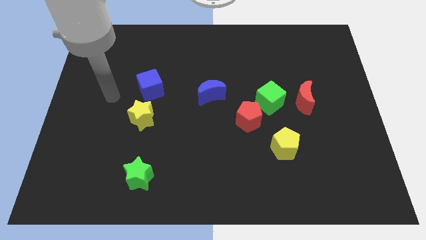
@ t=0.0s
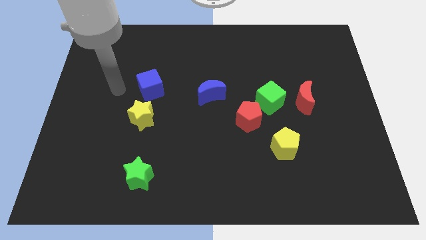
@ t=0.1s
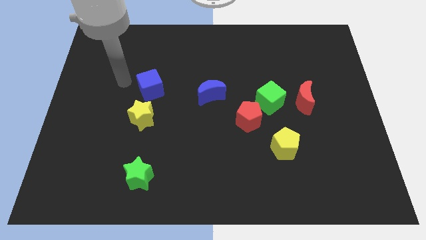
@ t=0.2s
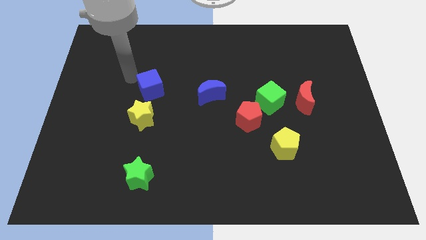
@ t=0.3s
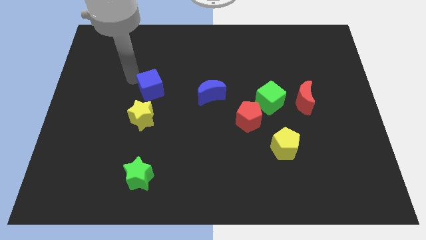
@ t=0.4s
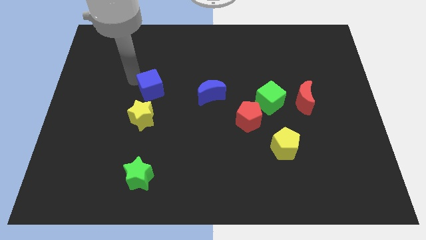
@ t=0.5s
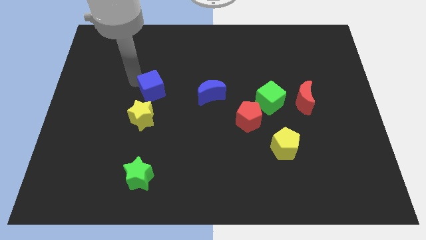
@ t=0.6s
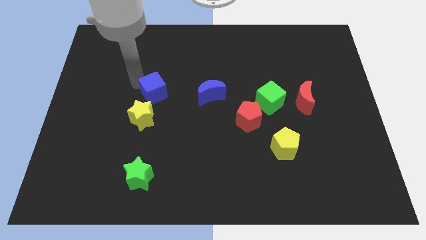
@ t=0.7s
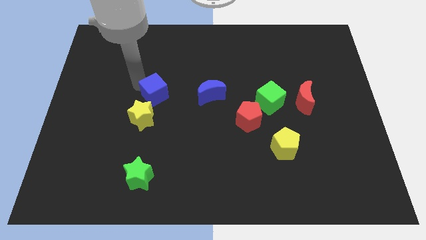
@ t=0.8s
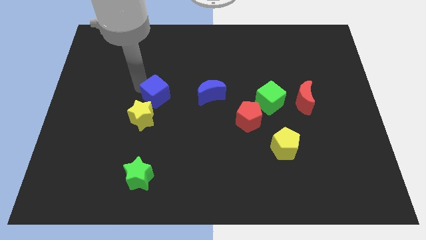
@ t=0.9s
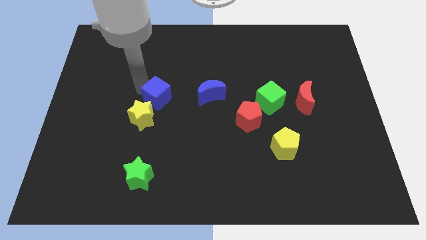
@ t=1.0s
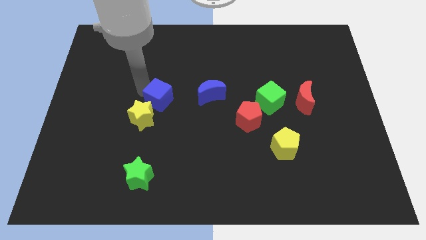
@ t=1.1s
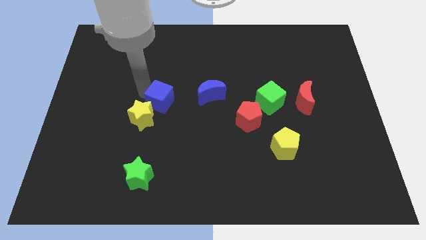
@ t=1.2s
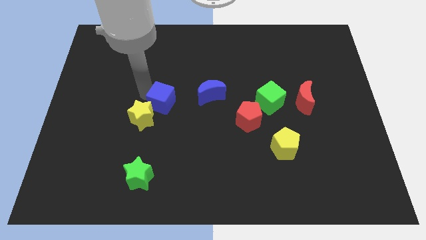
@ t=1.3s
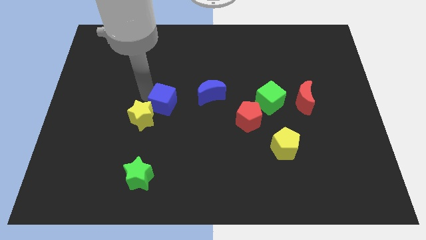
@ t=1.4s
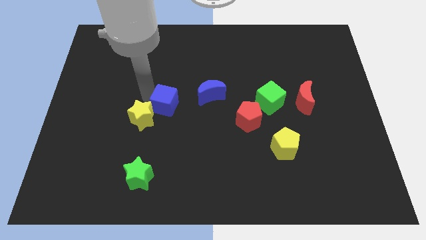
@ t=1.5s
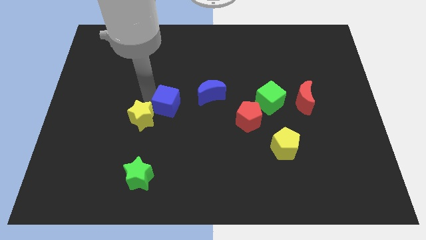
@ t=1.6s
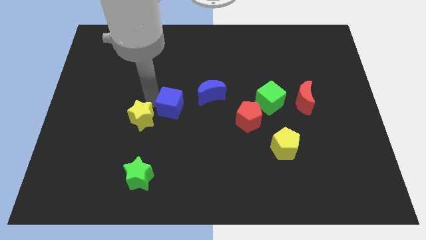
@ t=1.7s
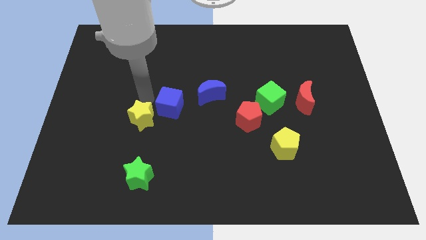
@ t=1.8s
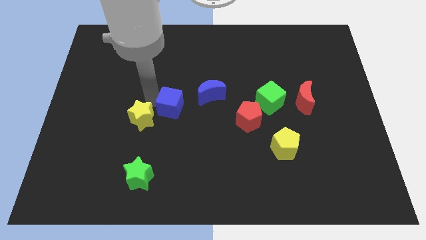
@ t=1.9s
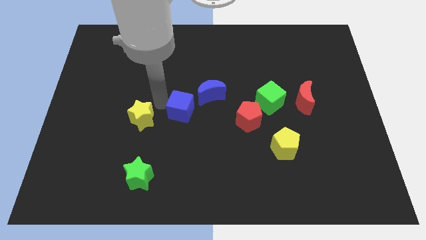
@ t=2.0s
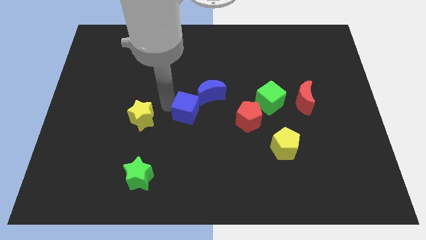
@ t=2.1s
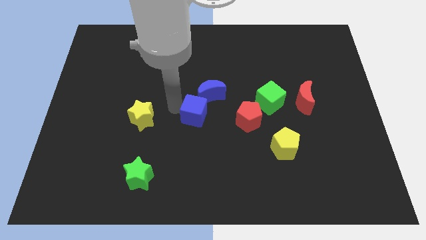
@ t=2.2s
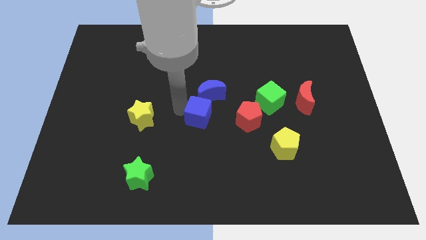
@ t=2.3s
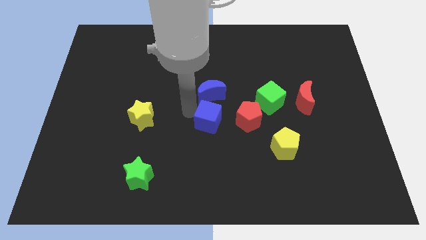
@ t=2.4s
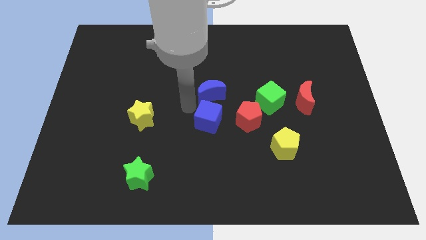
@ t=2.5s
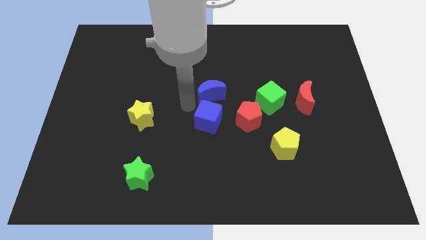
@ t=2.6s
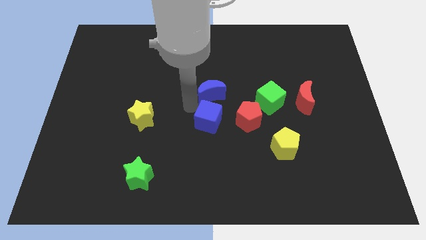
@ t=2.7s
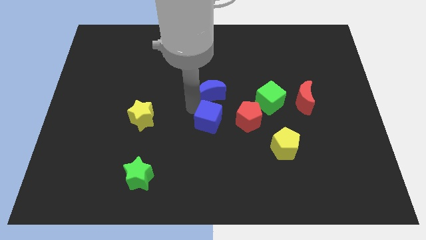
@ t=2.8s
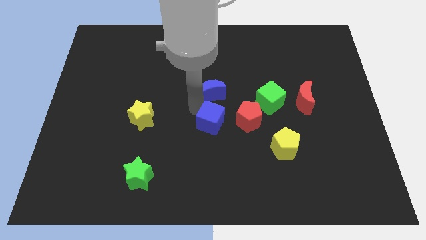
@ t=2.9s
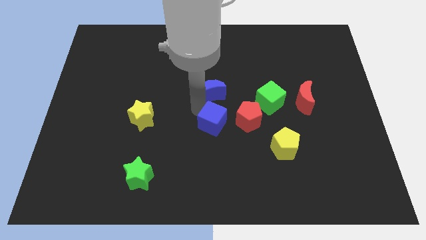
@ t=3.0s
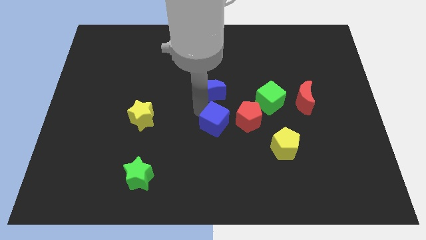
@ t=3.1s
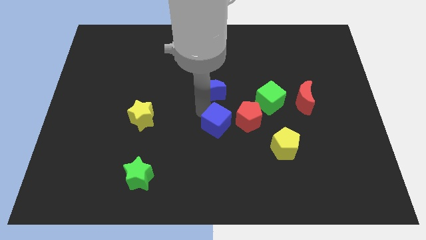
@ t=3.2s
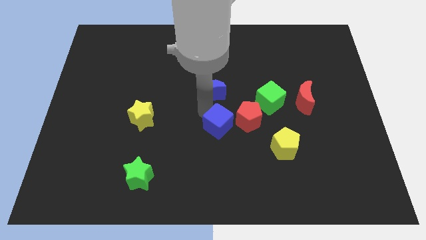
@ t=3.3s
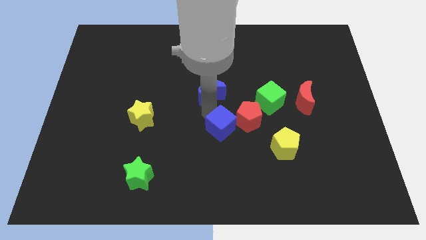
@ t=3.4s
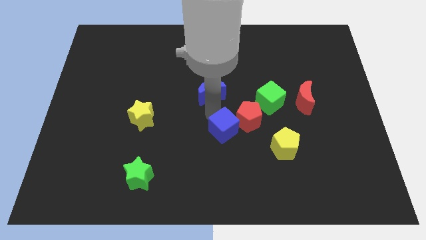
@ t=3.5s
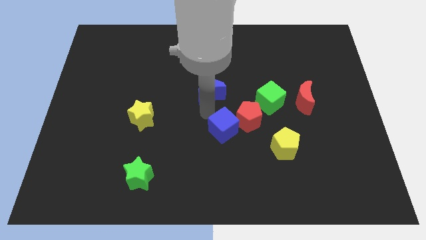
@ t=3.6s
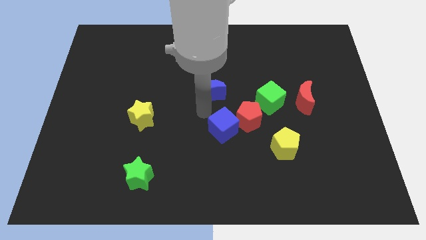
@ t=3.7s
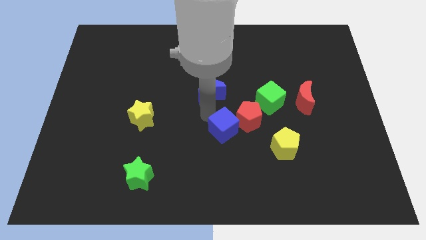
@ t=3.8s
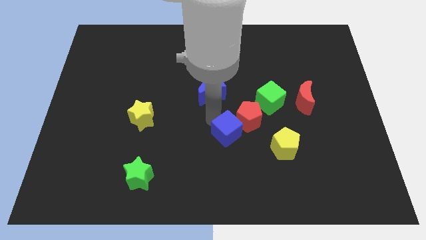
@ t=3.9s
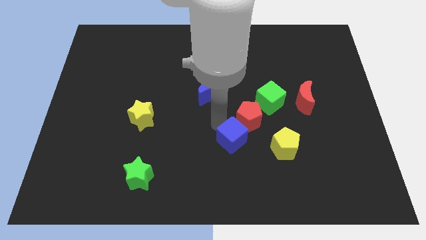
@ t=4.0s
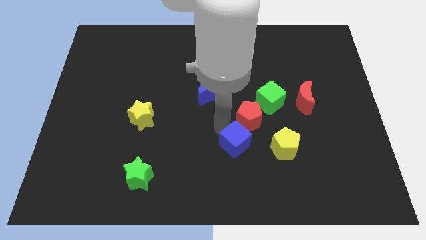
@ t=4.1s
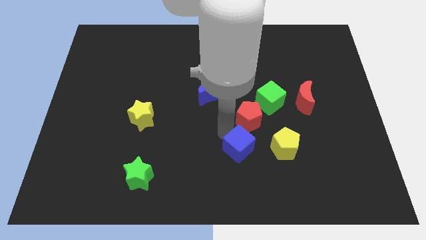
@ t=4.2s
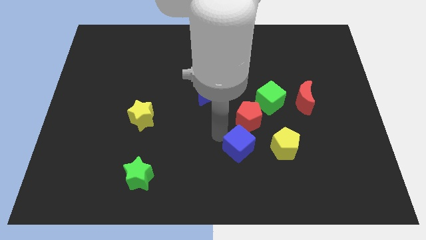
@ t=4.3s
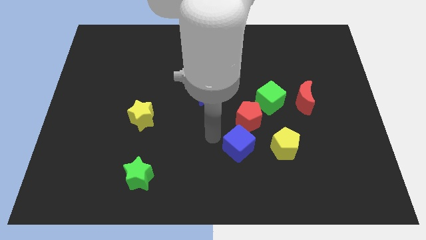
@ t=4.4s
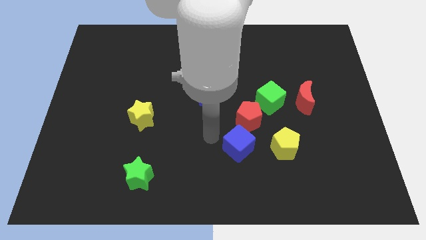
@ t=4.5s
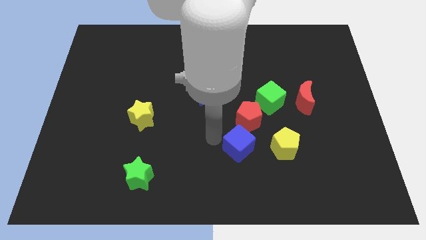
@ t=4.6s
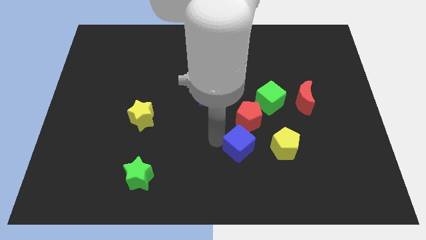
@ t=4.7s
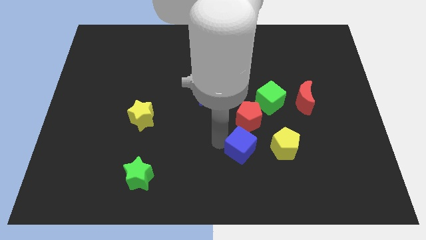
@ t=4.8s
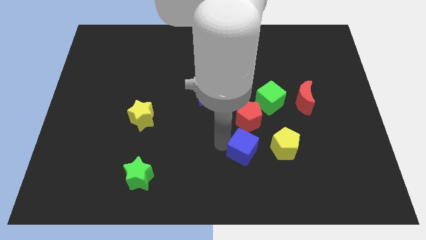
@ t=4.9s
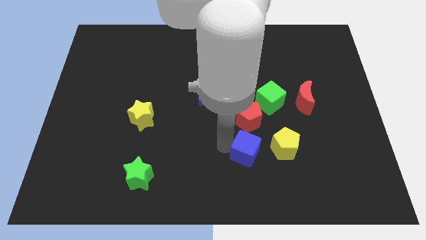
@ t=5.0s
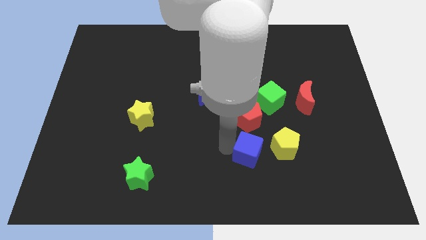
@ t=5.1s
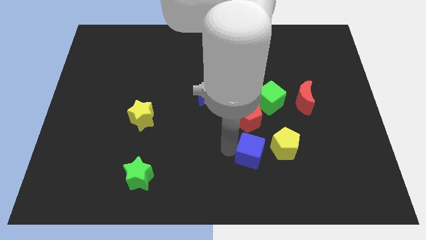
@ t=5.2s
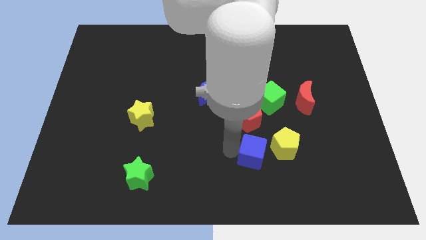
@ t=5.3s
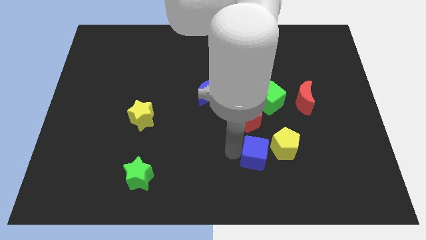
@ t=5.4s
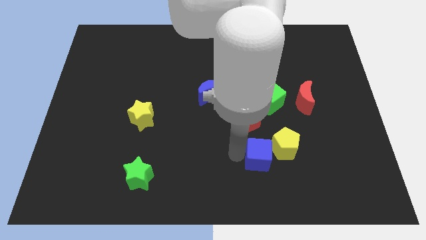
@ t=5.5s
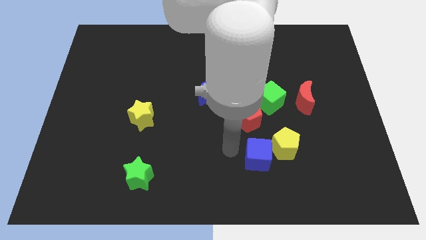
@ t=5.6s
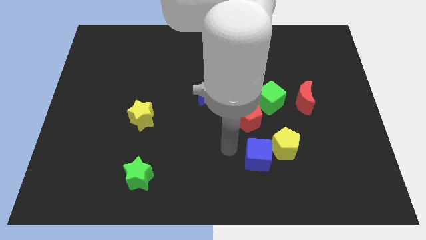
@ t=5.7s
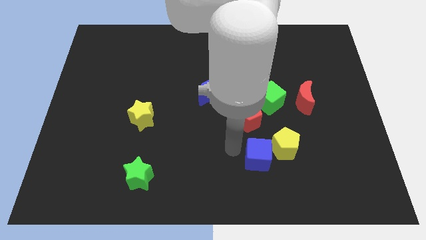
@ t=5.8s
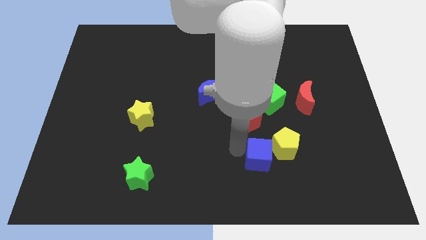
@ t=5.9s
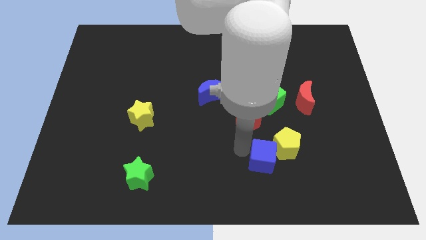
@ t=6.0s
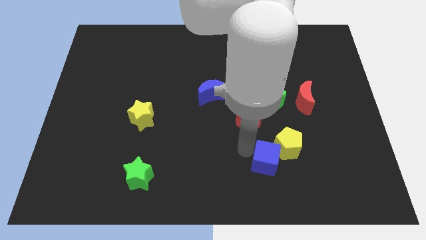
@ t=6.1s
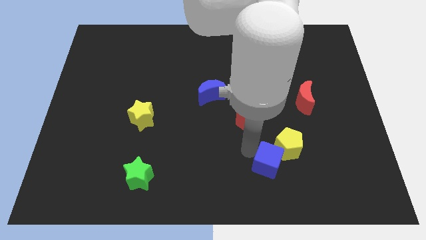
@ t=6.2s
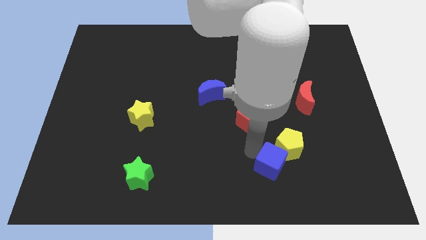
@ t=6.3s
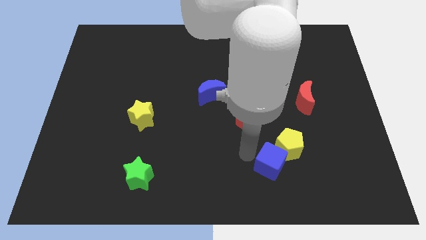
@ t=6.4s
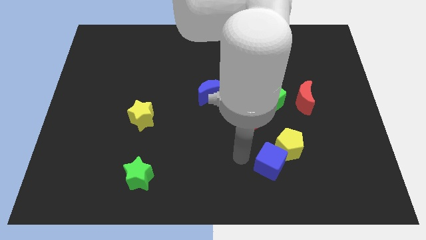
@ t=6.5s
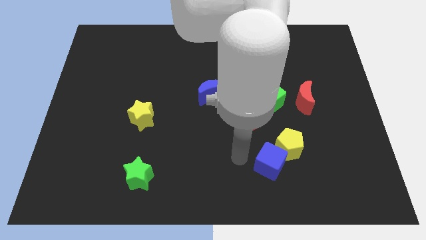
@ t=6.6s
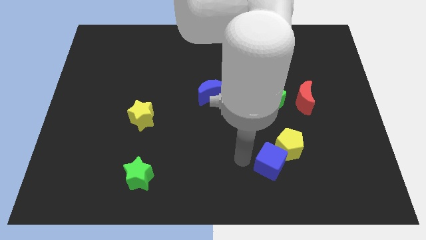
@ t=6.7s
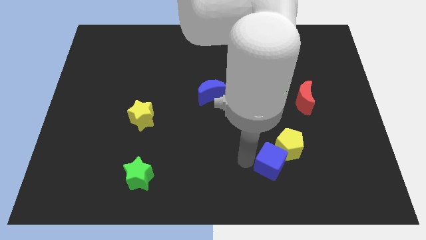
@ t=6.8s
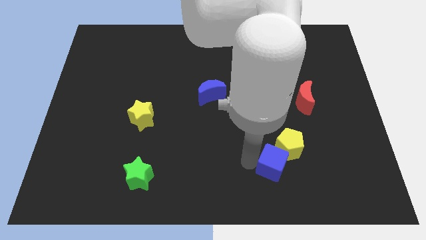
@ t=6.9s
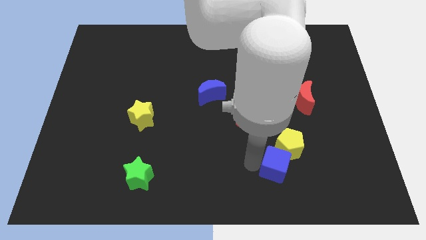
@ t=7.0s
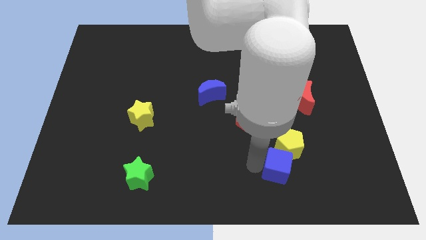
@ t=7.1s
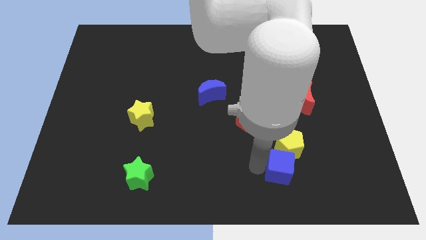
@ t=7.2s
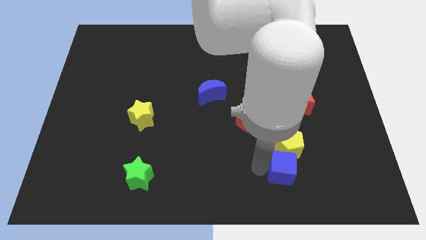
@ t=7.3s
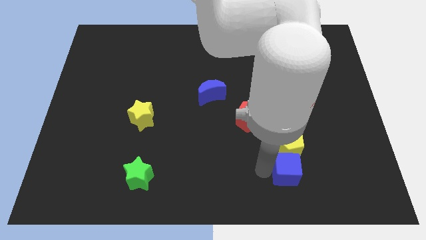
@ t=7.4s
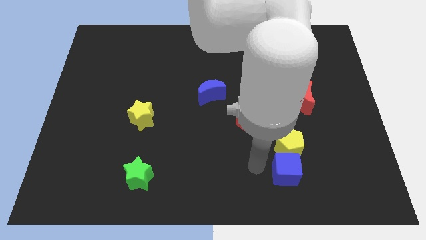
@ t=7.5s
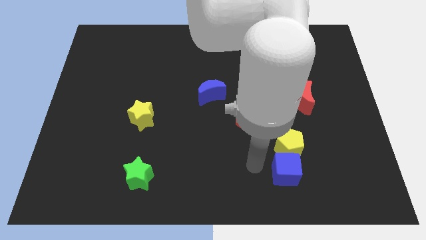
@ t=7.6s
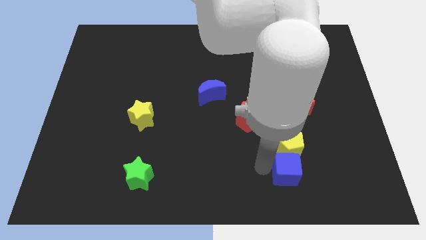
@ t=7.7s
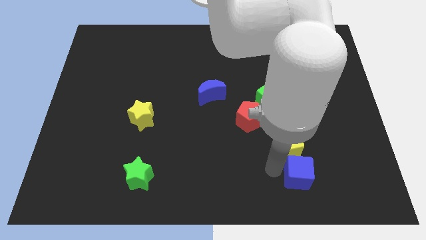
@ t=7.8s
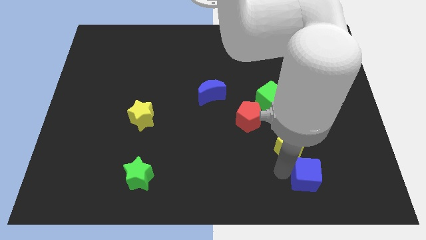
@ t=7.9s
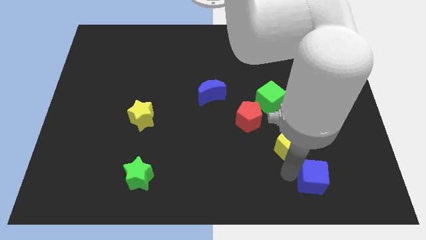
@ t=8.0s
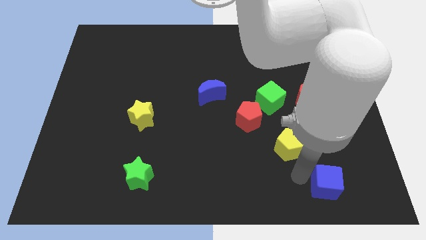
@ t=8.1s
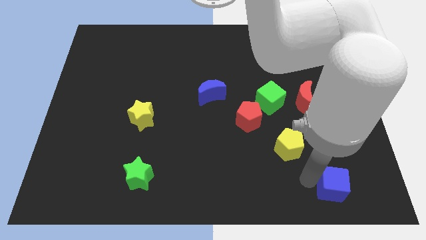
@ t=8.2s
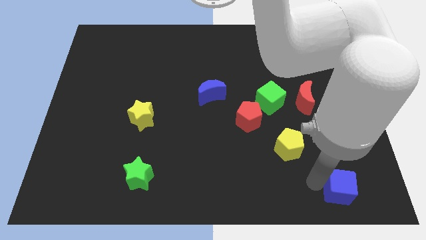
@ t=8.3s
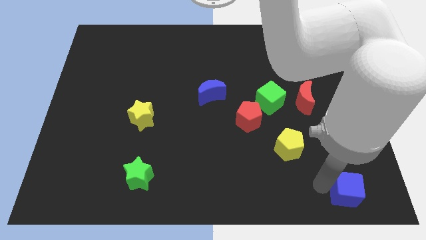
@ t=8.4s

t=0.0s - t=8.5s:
move the blue cube to the lower right corner
